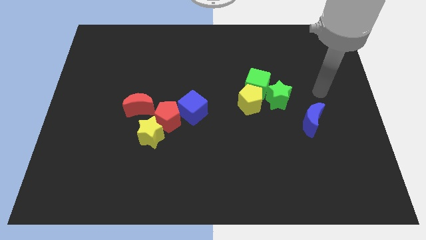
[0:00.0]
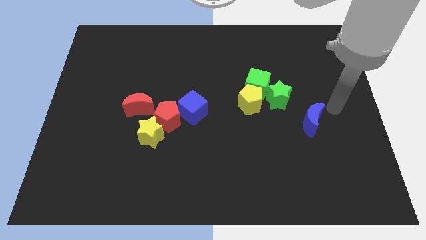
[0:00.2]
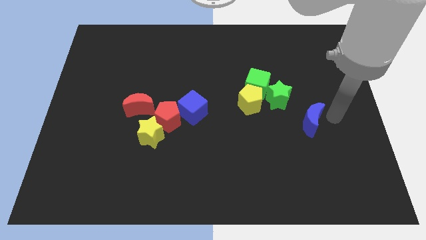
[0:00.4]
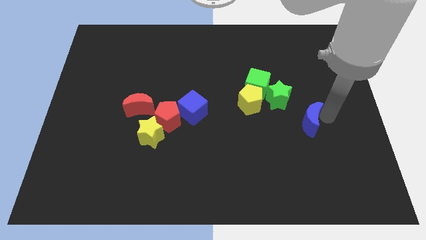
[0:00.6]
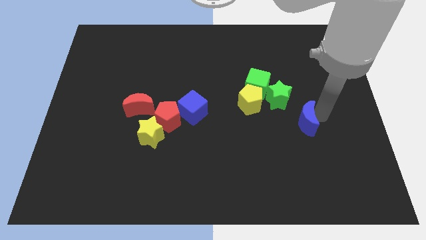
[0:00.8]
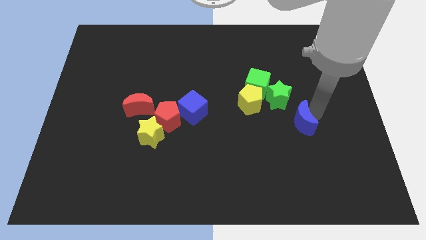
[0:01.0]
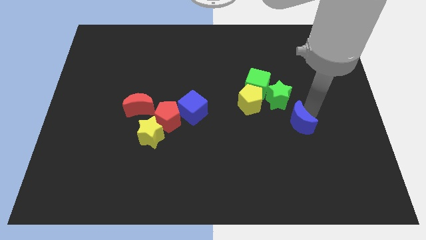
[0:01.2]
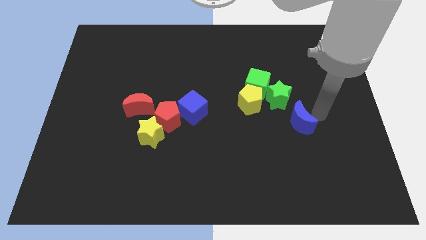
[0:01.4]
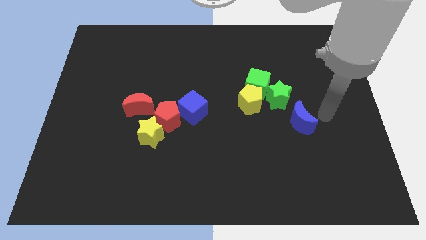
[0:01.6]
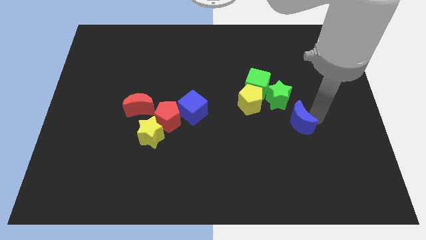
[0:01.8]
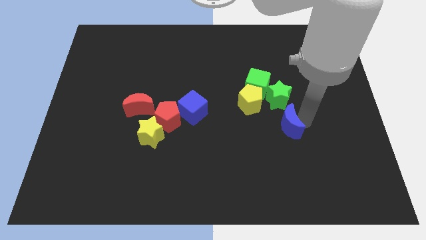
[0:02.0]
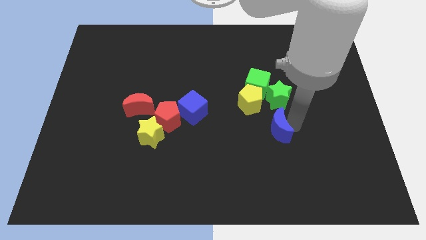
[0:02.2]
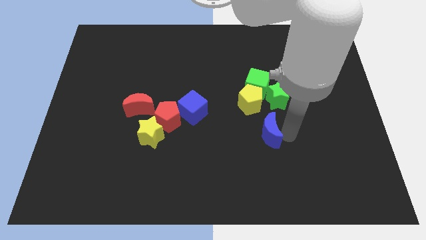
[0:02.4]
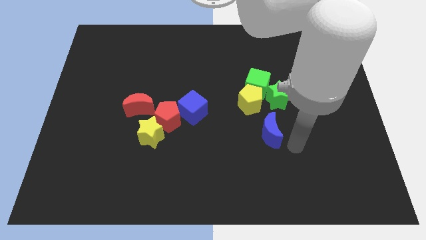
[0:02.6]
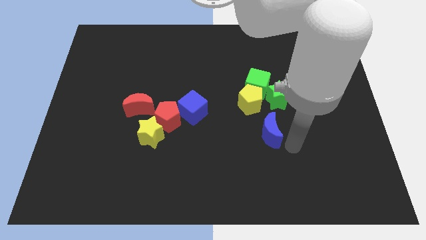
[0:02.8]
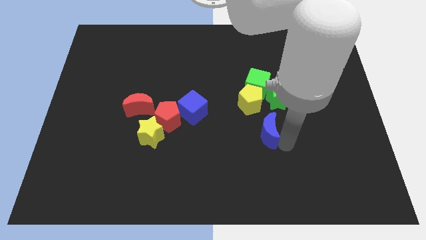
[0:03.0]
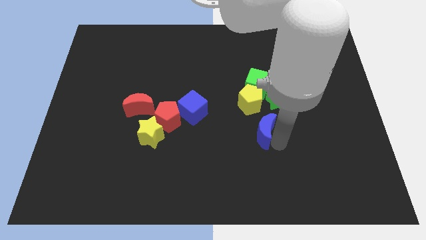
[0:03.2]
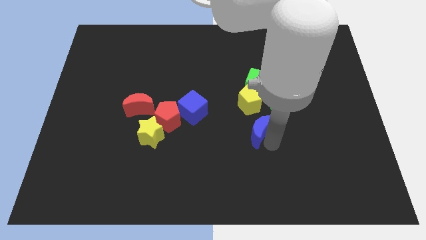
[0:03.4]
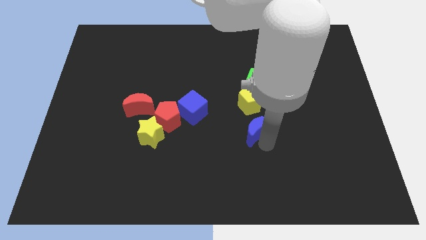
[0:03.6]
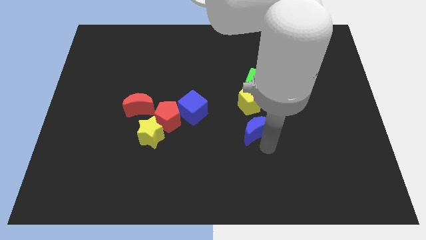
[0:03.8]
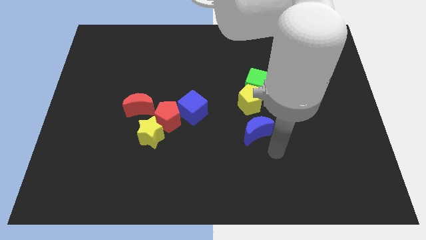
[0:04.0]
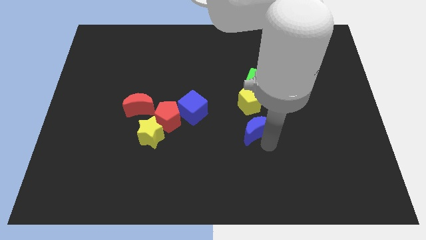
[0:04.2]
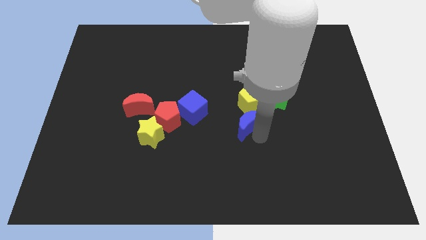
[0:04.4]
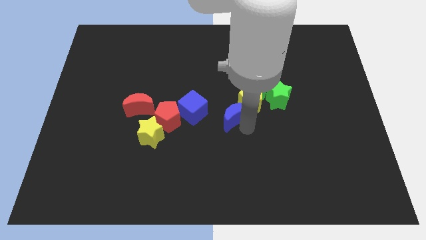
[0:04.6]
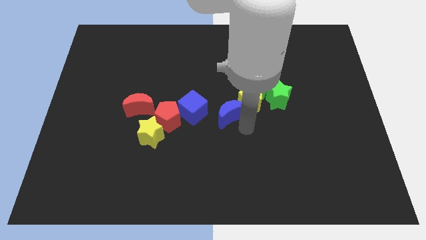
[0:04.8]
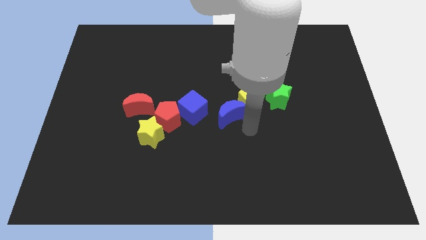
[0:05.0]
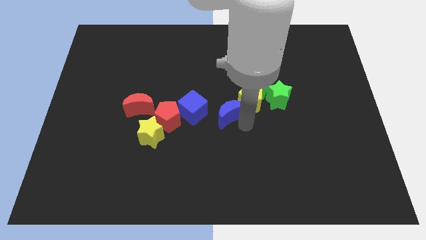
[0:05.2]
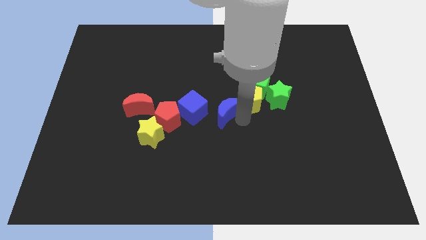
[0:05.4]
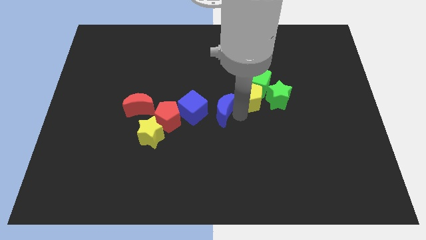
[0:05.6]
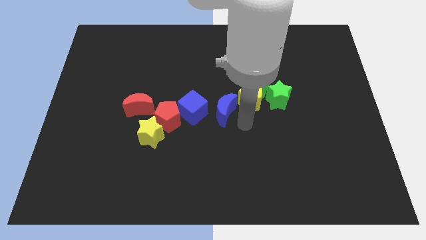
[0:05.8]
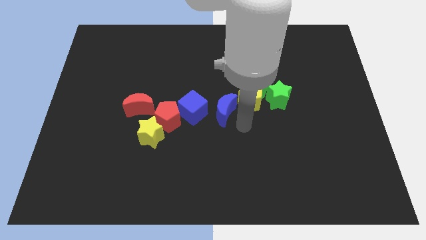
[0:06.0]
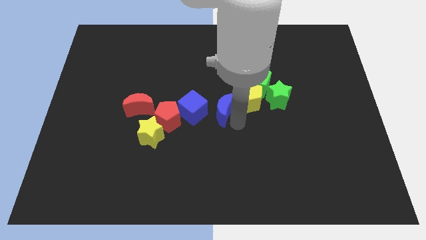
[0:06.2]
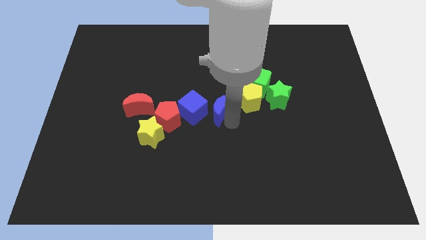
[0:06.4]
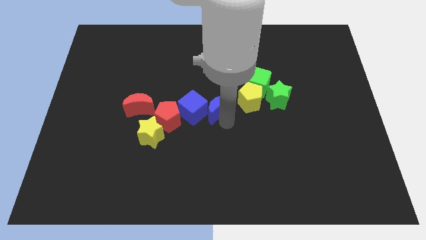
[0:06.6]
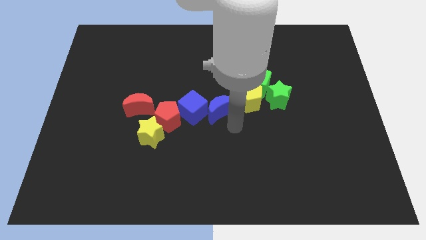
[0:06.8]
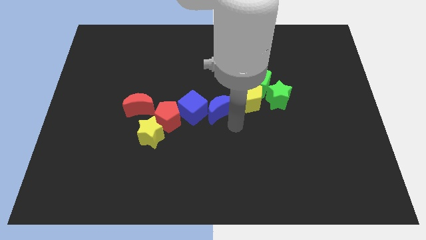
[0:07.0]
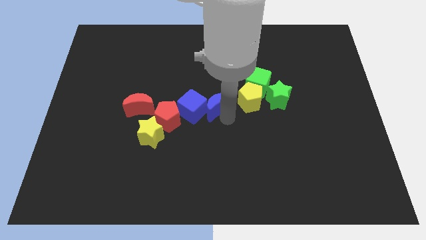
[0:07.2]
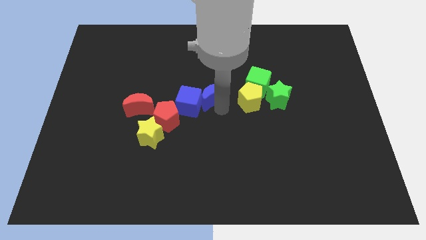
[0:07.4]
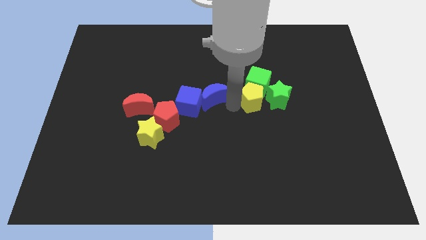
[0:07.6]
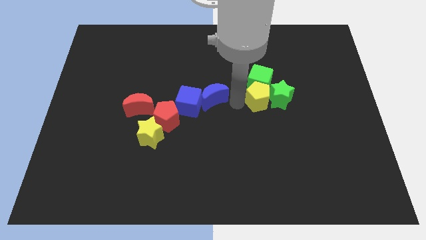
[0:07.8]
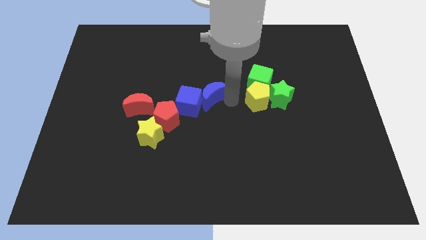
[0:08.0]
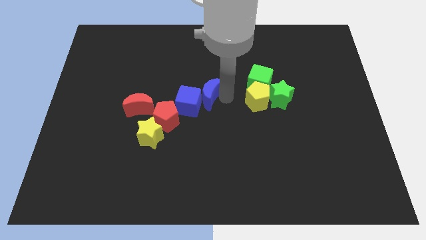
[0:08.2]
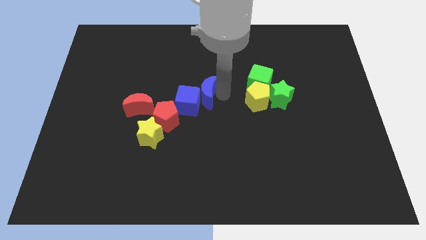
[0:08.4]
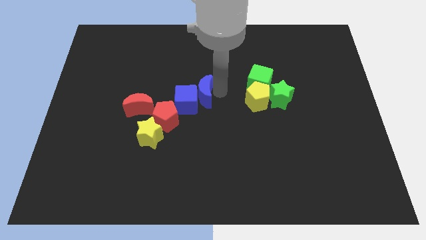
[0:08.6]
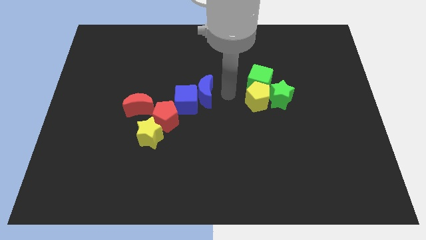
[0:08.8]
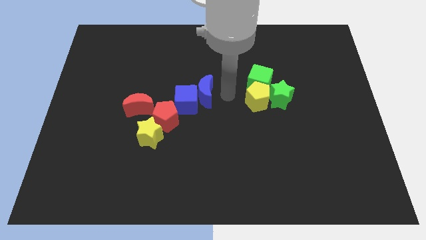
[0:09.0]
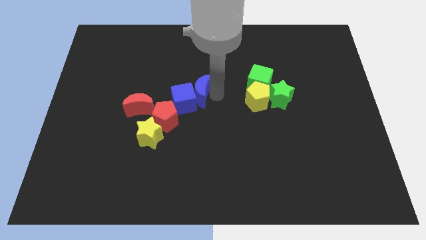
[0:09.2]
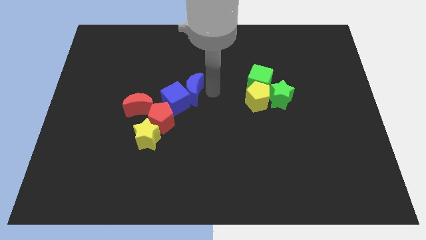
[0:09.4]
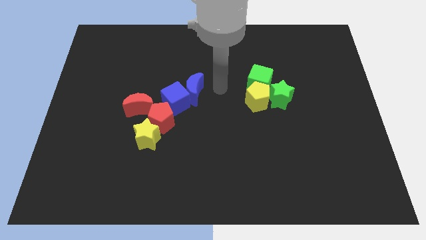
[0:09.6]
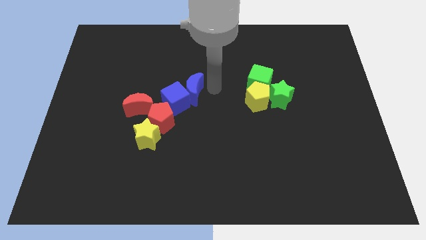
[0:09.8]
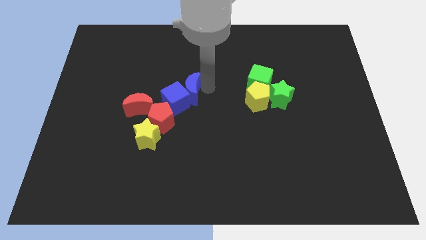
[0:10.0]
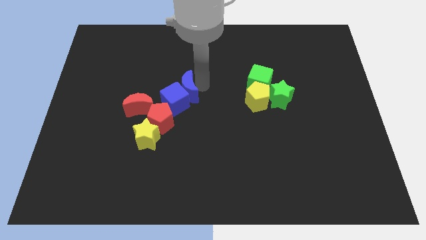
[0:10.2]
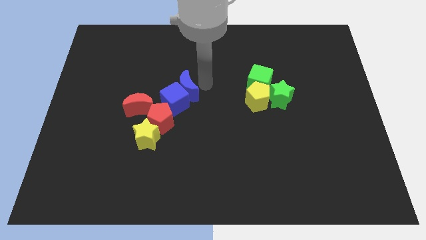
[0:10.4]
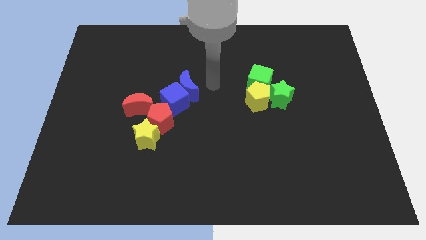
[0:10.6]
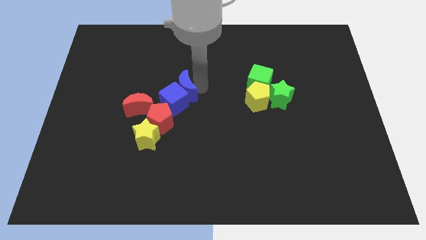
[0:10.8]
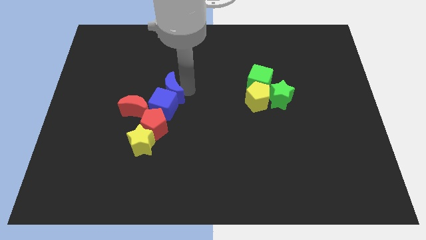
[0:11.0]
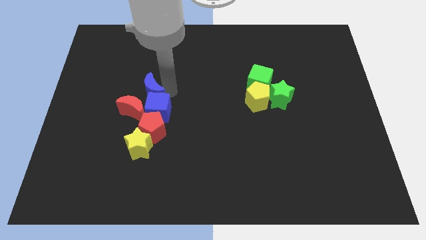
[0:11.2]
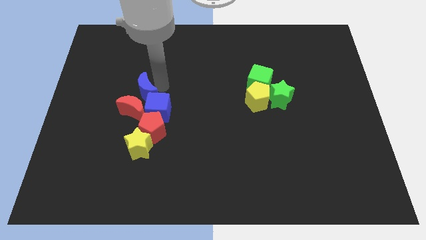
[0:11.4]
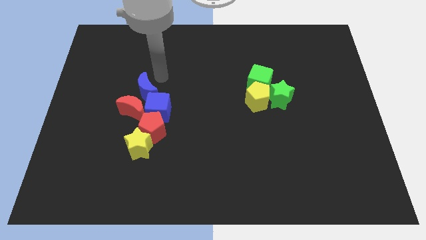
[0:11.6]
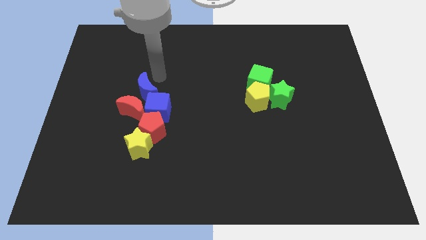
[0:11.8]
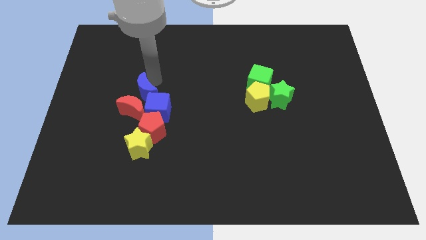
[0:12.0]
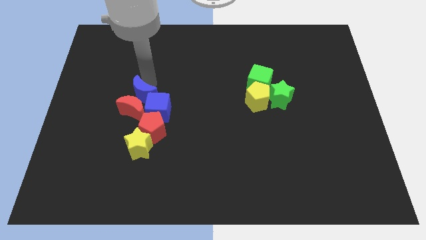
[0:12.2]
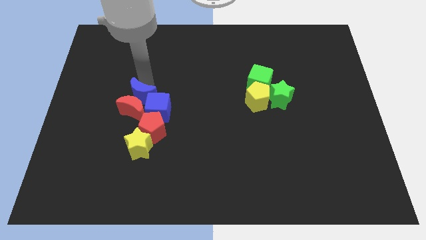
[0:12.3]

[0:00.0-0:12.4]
push the blue moon to the top left of the red pentagon

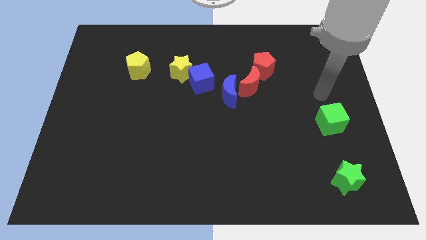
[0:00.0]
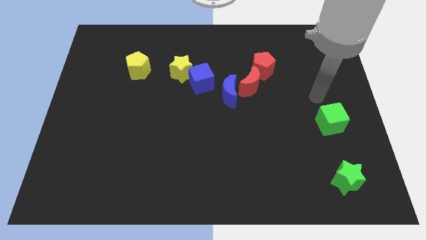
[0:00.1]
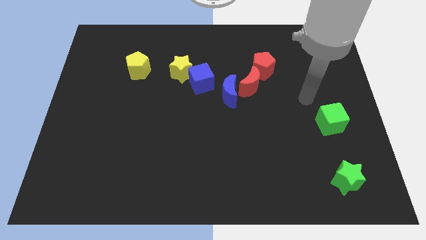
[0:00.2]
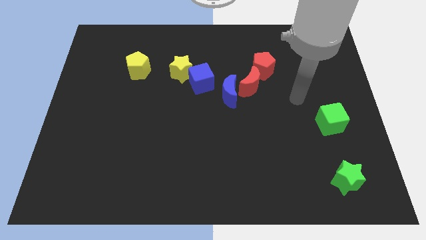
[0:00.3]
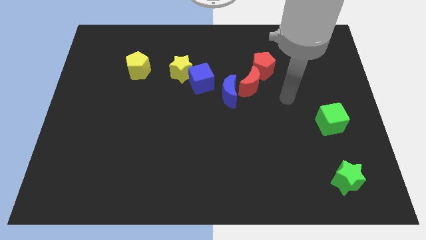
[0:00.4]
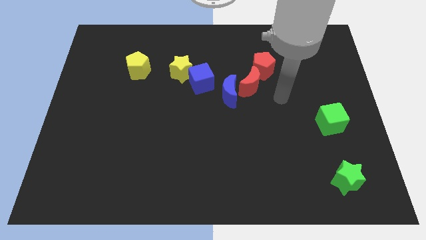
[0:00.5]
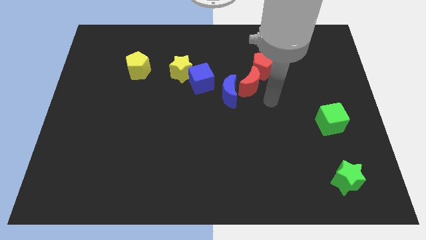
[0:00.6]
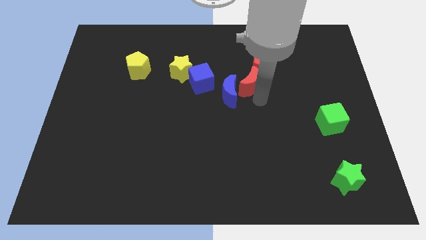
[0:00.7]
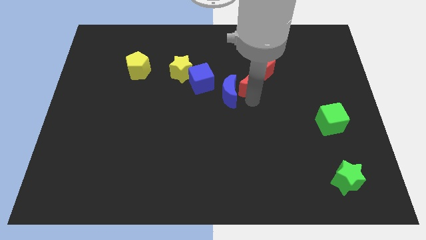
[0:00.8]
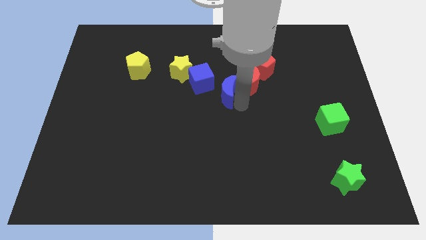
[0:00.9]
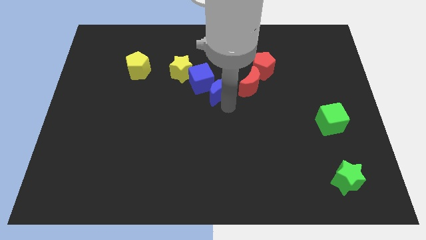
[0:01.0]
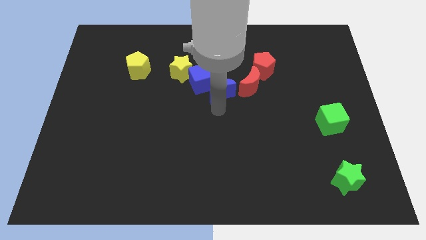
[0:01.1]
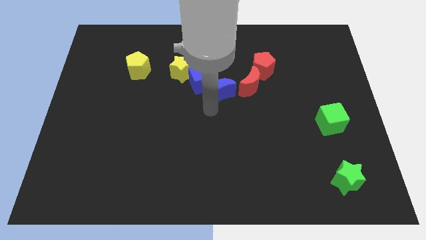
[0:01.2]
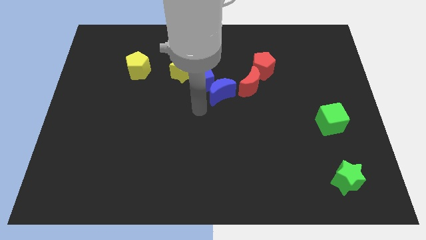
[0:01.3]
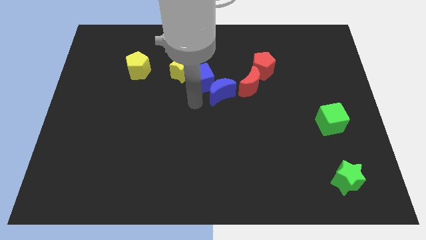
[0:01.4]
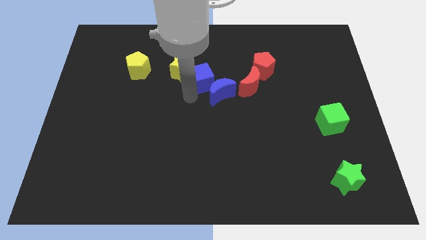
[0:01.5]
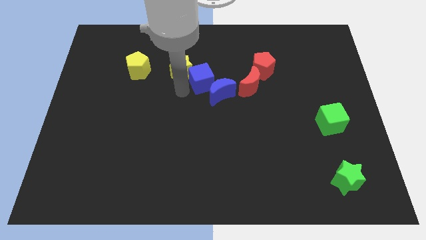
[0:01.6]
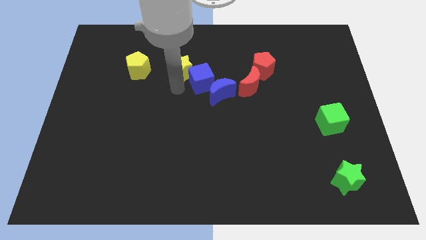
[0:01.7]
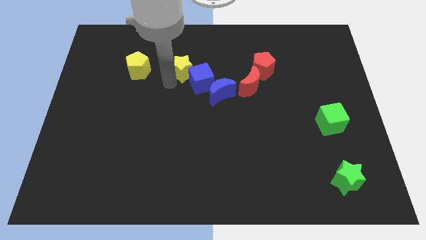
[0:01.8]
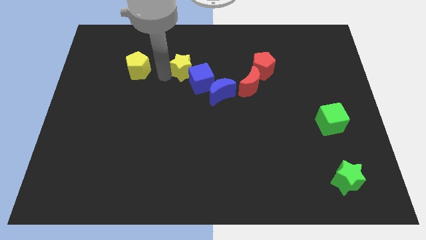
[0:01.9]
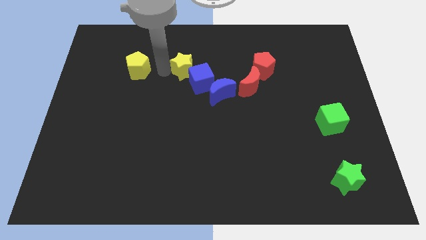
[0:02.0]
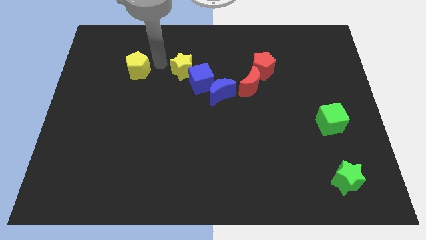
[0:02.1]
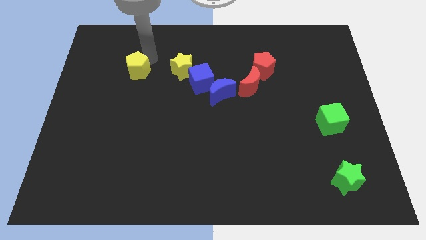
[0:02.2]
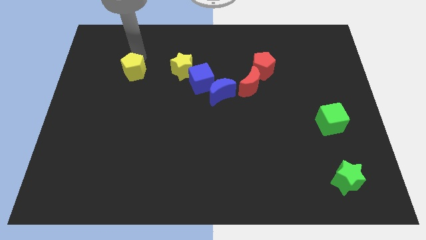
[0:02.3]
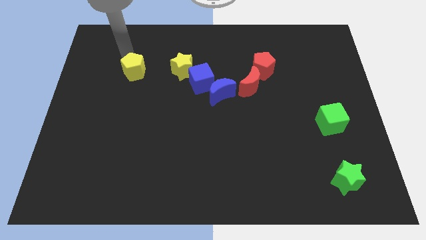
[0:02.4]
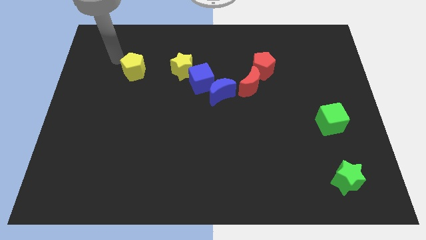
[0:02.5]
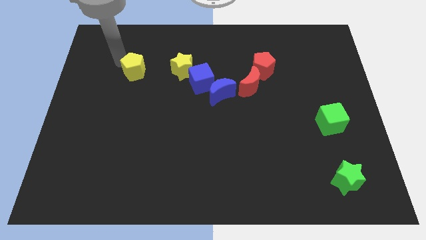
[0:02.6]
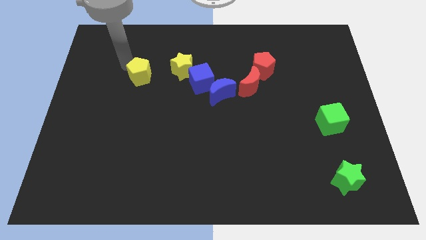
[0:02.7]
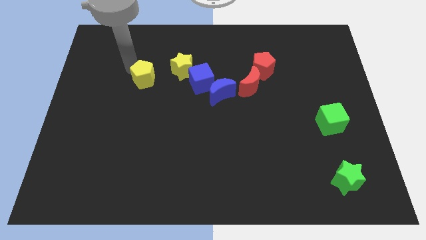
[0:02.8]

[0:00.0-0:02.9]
slide the yellow pentagon diagonally down and to the left of the yellow star
